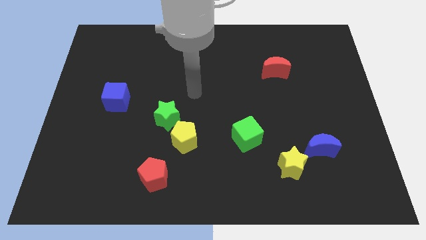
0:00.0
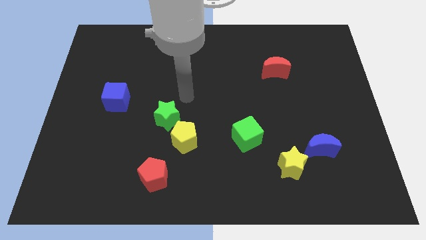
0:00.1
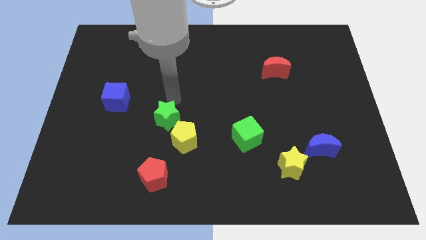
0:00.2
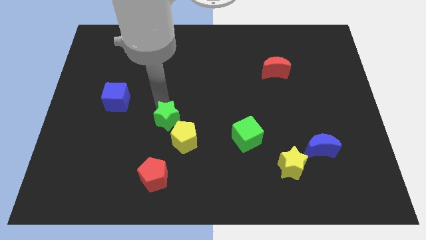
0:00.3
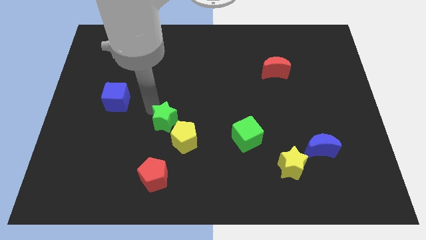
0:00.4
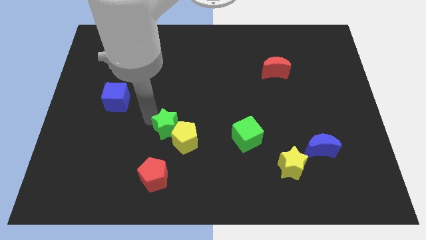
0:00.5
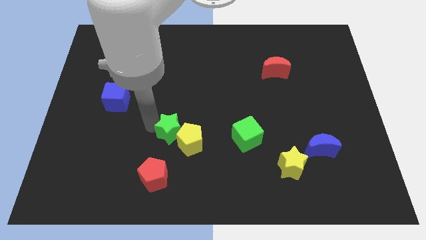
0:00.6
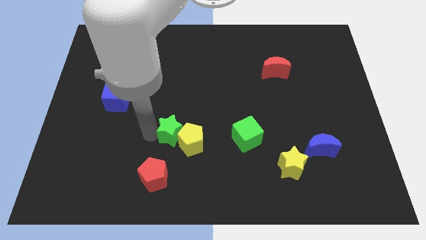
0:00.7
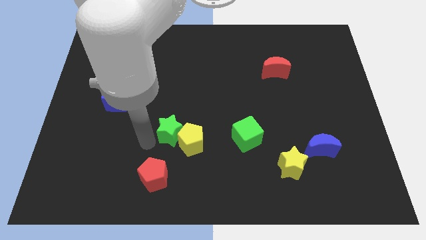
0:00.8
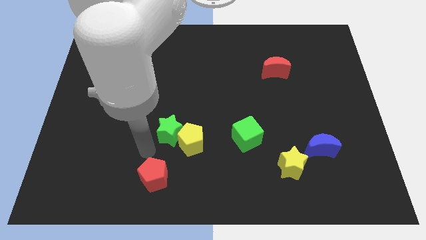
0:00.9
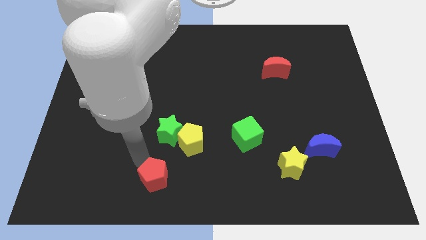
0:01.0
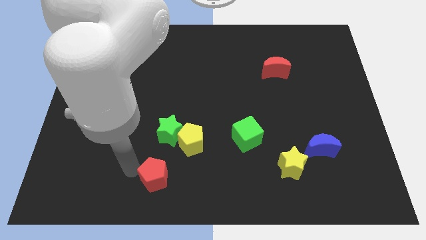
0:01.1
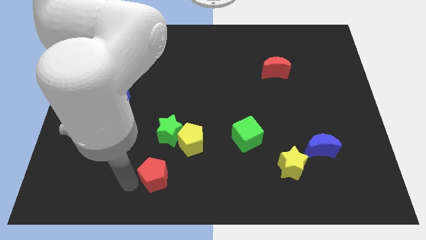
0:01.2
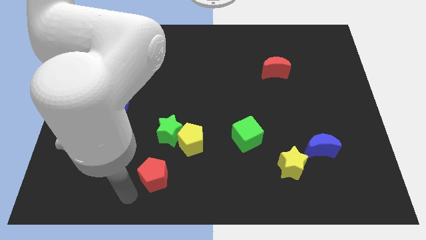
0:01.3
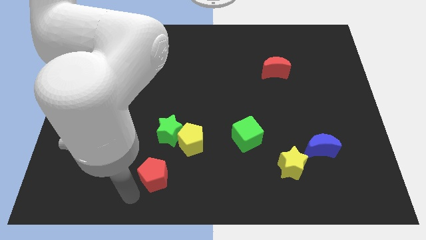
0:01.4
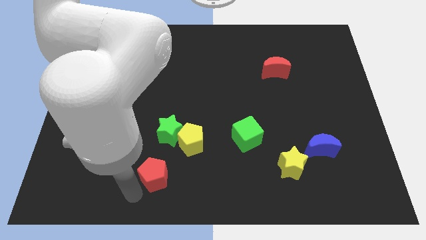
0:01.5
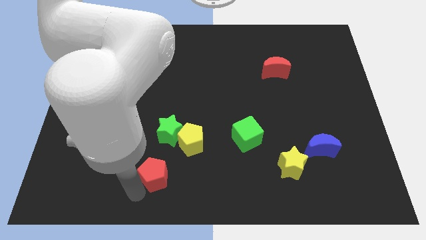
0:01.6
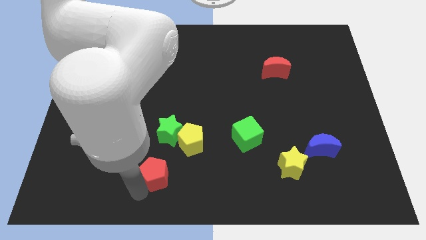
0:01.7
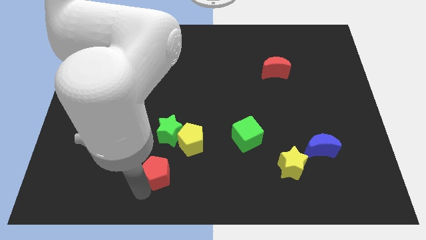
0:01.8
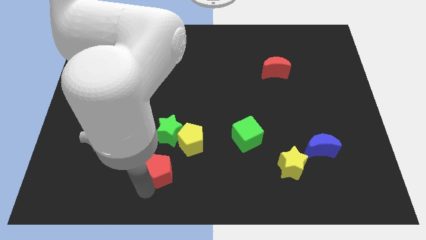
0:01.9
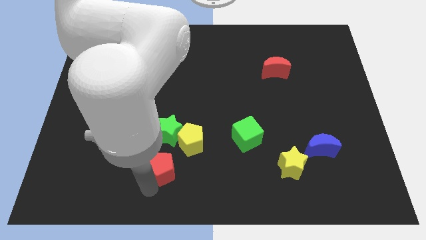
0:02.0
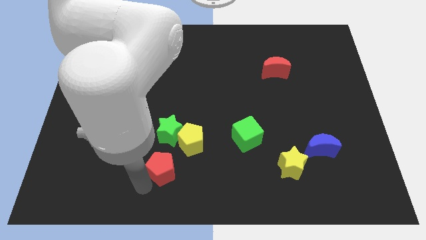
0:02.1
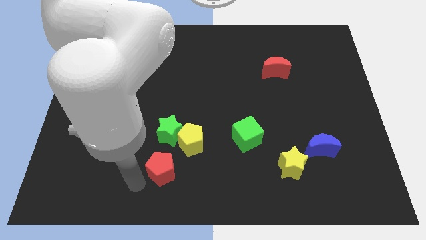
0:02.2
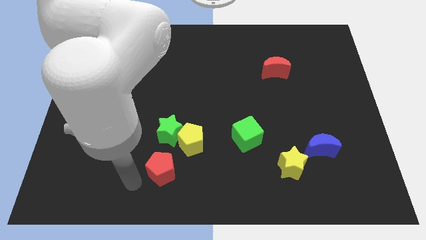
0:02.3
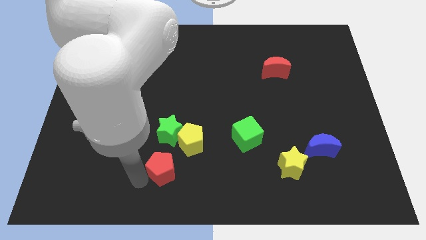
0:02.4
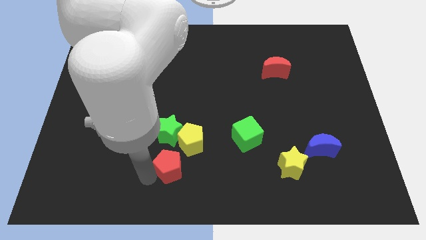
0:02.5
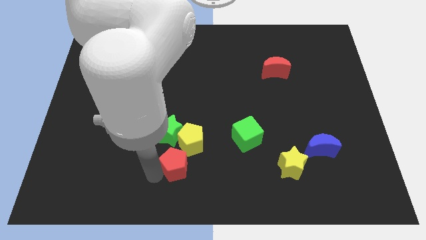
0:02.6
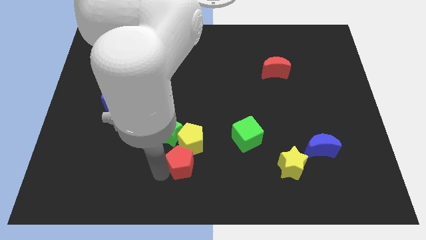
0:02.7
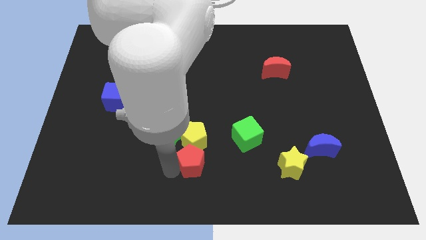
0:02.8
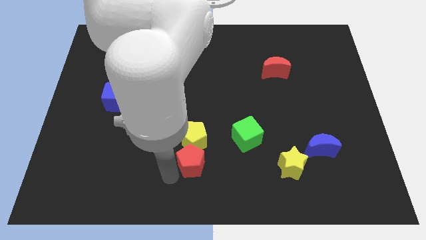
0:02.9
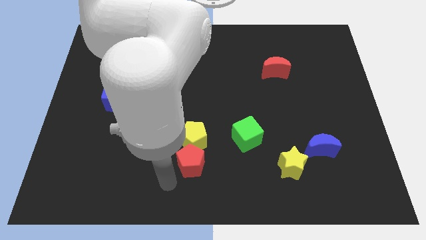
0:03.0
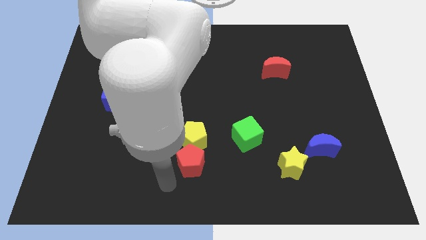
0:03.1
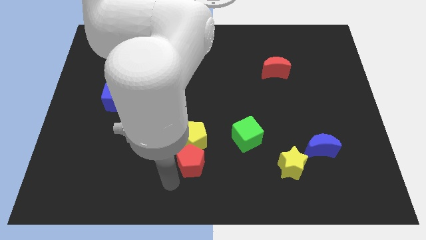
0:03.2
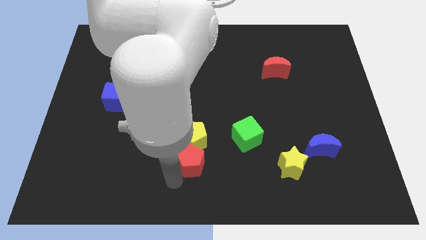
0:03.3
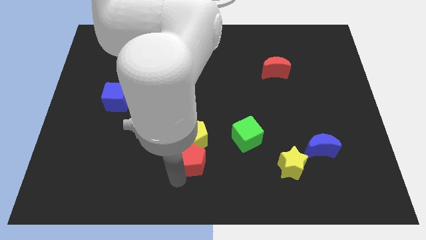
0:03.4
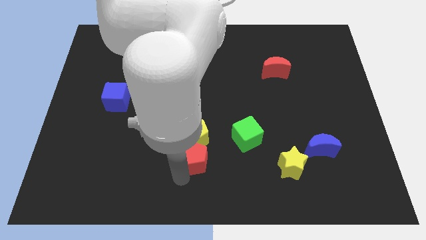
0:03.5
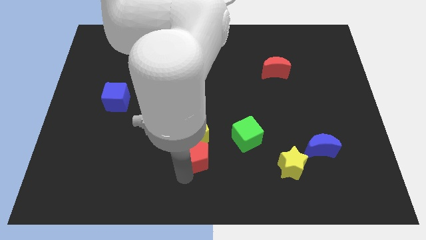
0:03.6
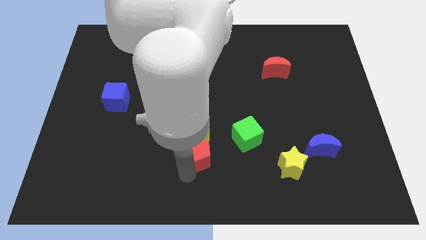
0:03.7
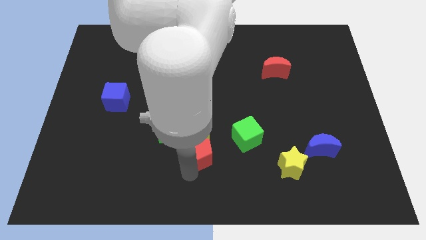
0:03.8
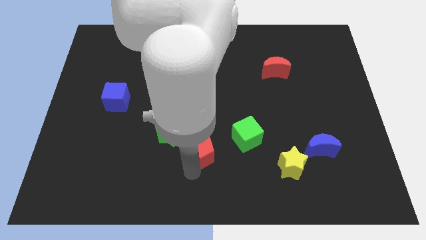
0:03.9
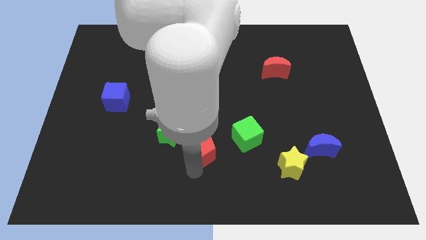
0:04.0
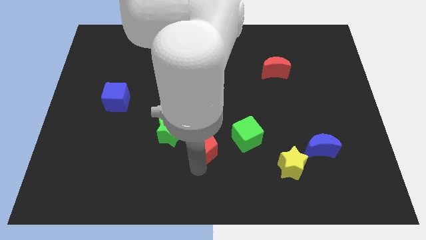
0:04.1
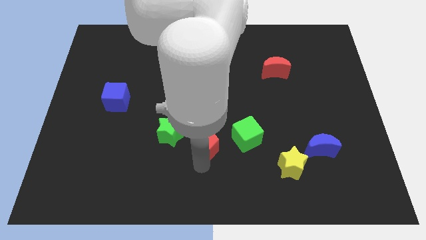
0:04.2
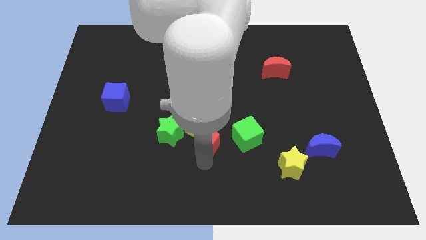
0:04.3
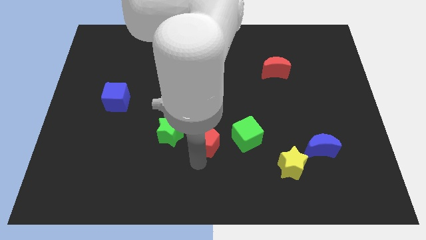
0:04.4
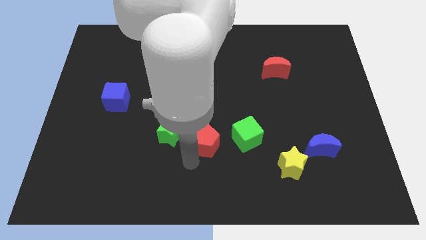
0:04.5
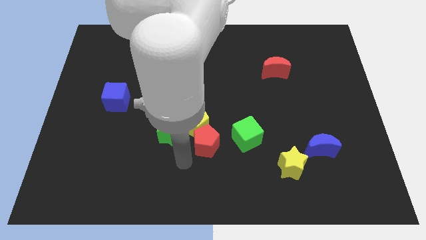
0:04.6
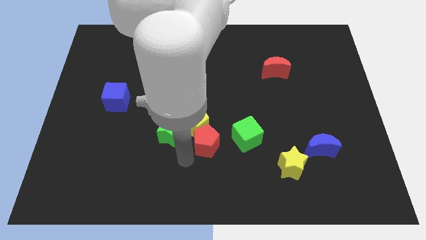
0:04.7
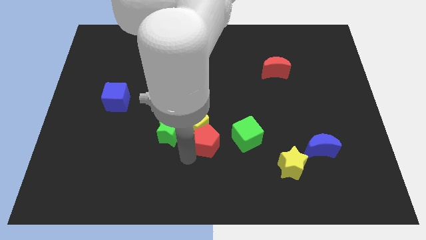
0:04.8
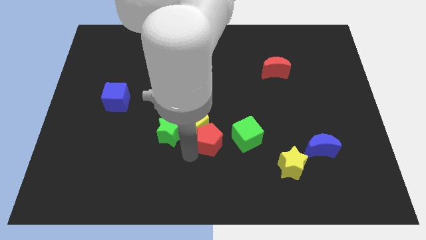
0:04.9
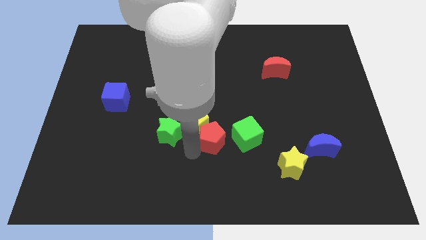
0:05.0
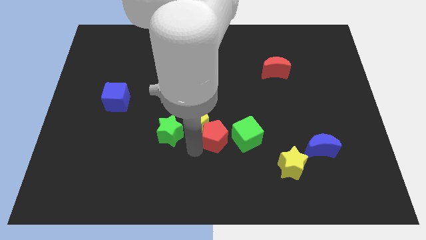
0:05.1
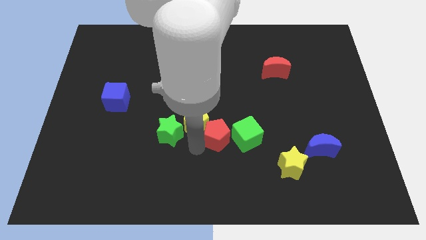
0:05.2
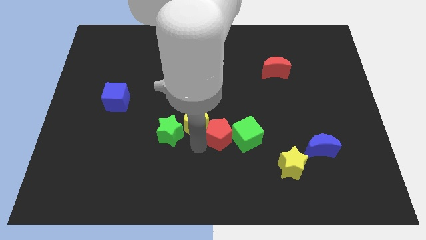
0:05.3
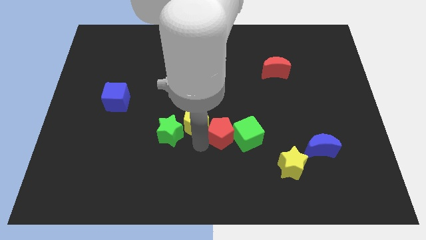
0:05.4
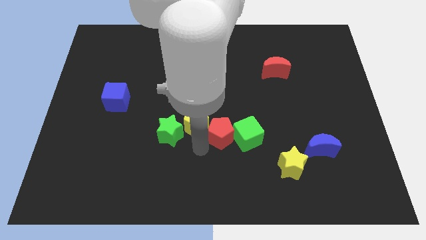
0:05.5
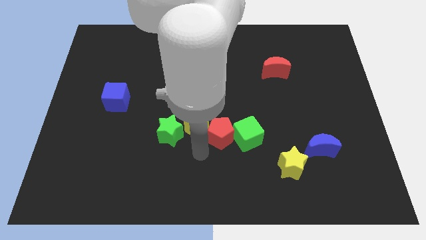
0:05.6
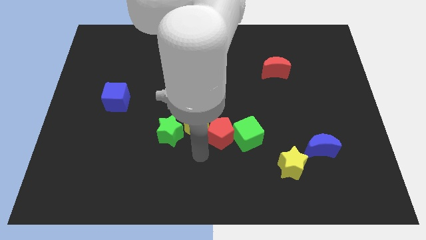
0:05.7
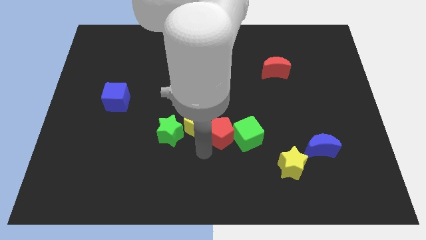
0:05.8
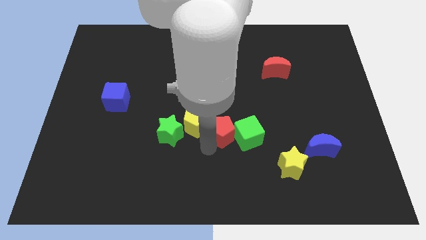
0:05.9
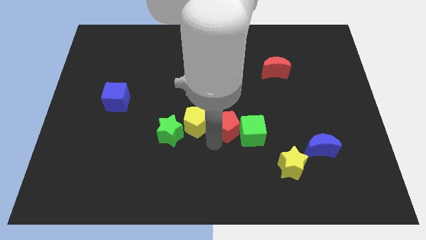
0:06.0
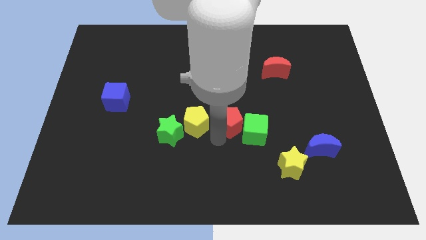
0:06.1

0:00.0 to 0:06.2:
push the red pentagon up and then to the right

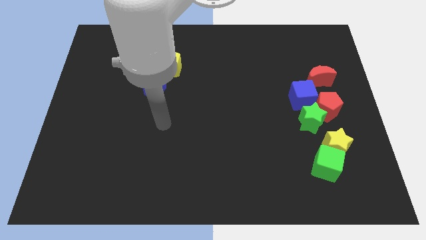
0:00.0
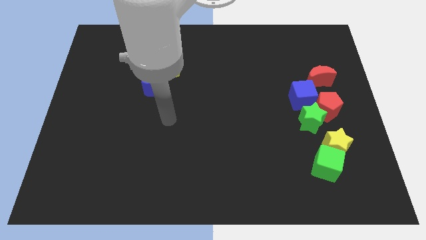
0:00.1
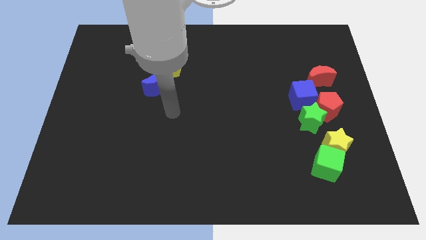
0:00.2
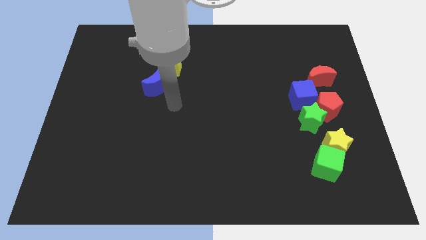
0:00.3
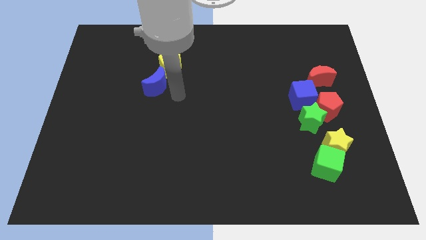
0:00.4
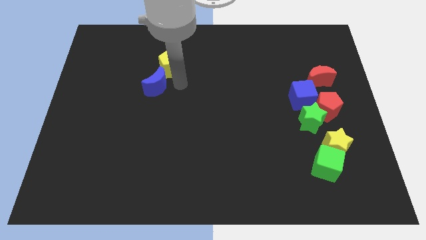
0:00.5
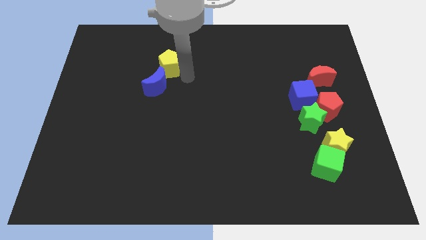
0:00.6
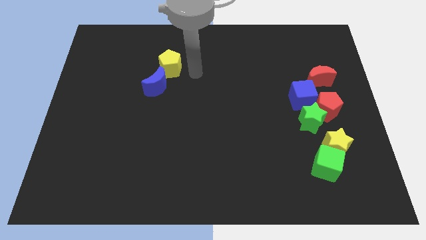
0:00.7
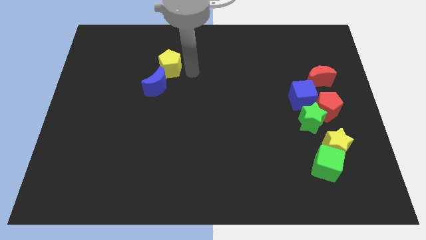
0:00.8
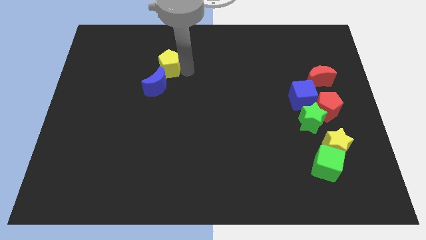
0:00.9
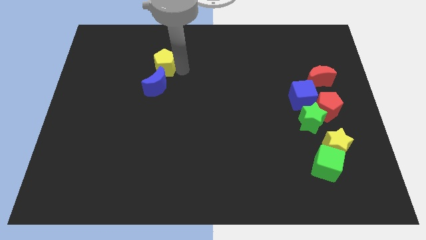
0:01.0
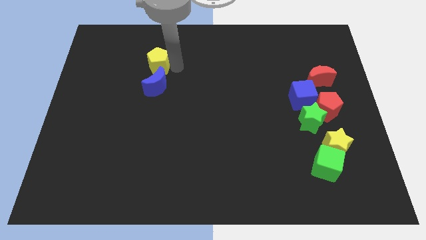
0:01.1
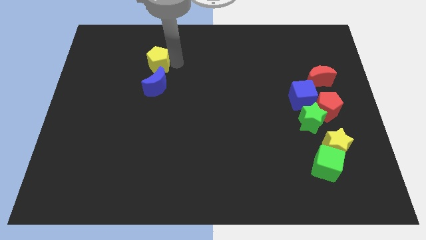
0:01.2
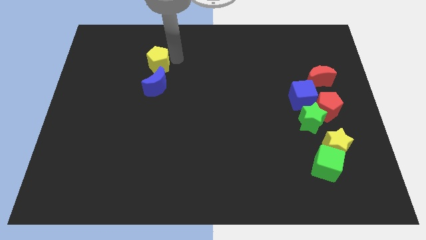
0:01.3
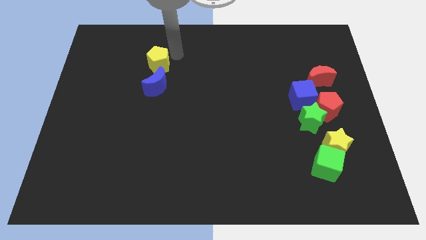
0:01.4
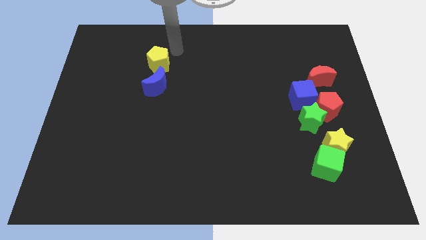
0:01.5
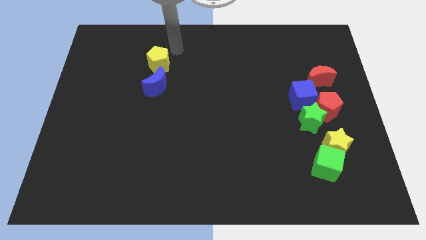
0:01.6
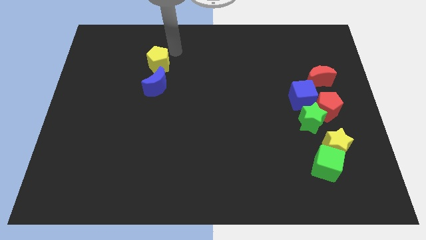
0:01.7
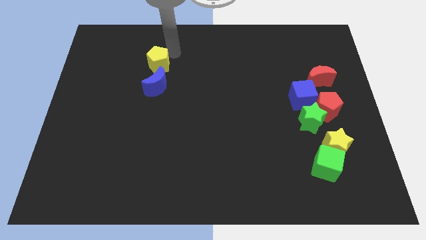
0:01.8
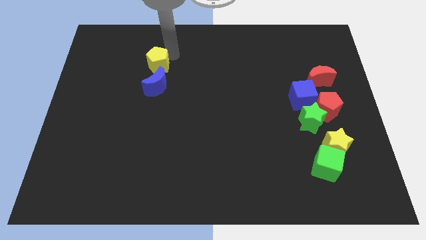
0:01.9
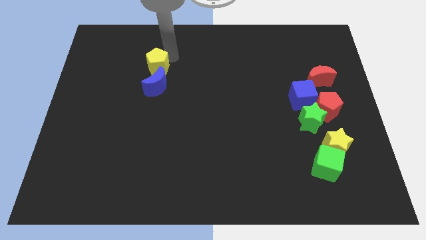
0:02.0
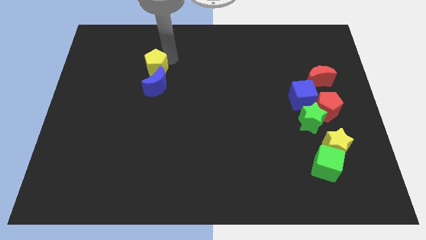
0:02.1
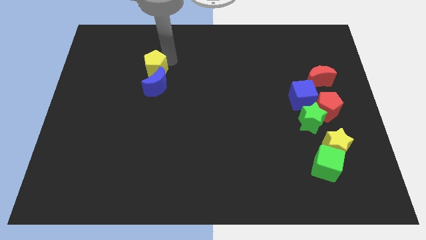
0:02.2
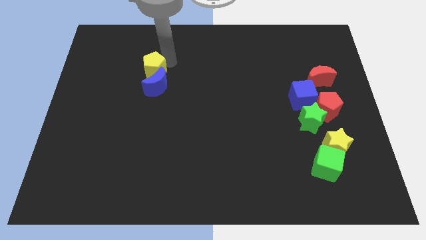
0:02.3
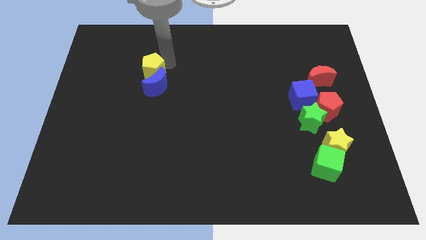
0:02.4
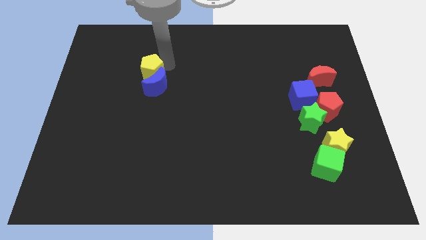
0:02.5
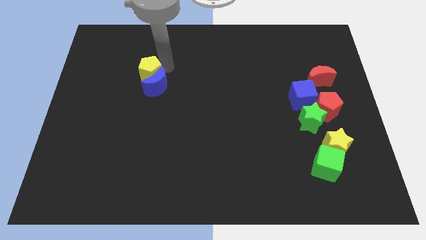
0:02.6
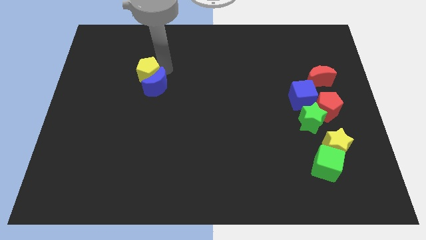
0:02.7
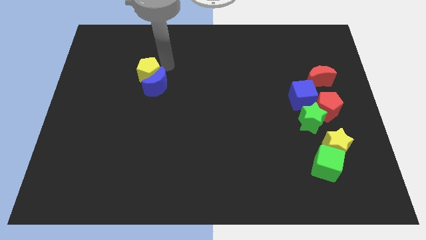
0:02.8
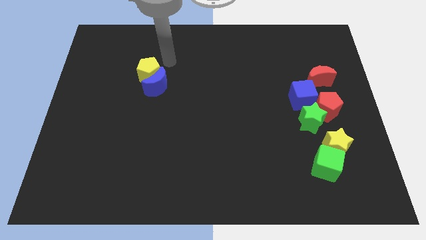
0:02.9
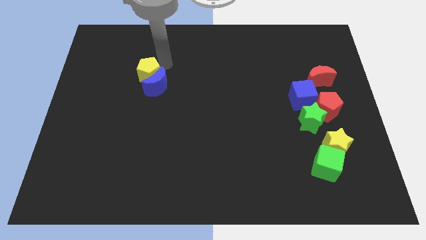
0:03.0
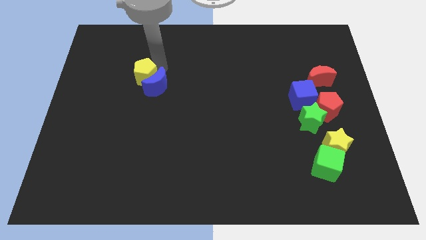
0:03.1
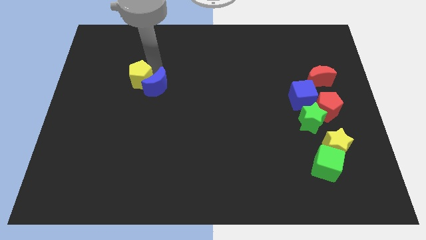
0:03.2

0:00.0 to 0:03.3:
move the yellow pentagon a little down and then left
